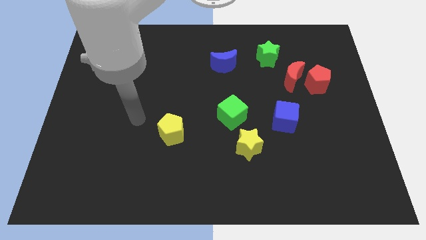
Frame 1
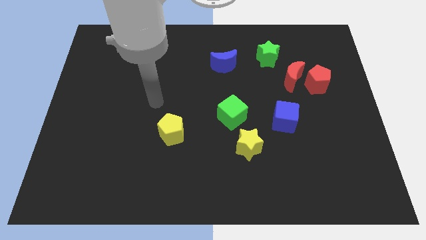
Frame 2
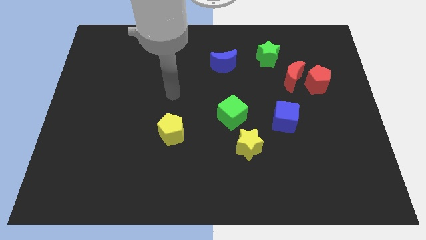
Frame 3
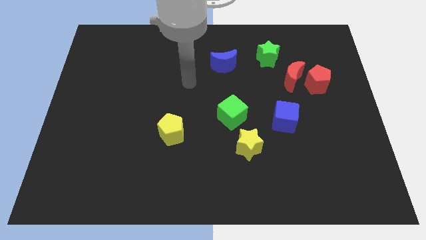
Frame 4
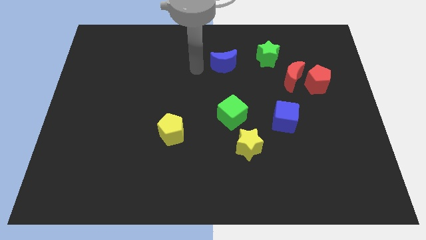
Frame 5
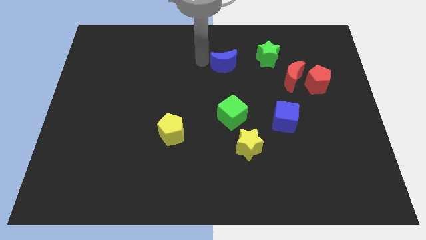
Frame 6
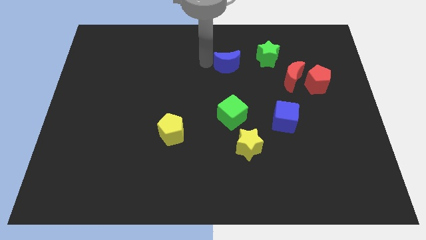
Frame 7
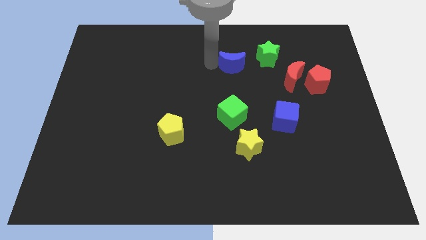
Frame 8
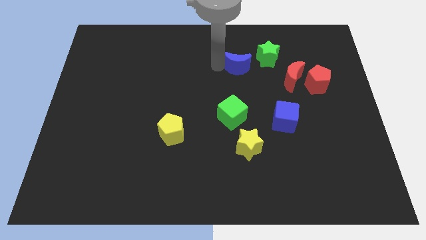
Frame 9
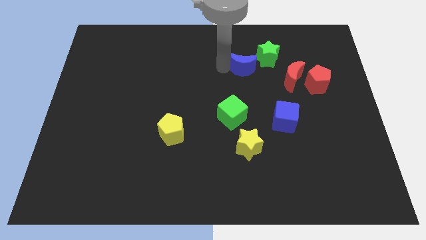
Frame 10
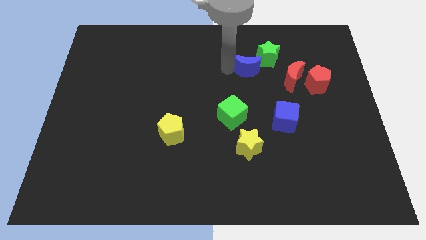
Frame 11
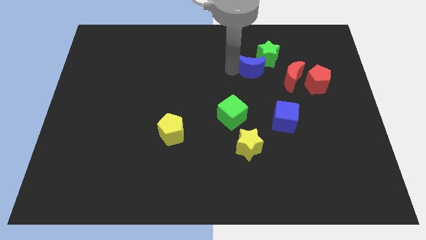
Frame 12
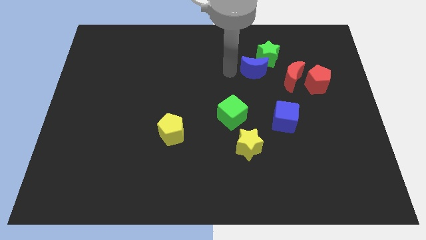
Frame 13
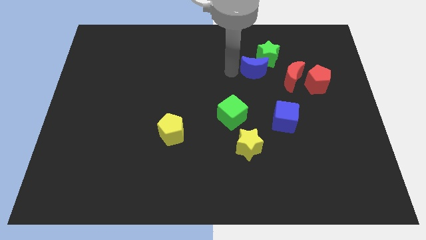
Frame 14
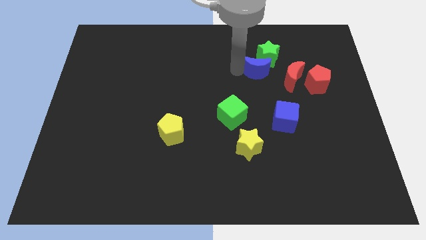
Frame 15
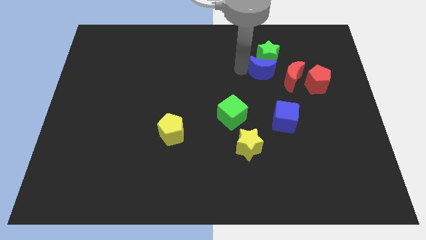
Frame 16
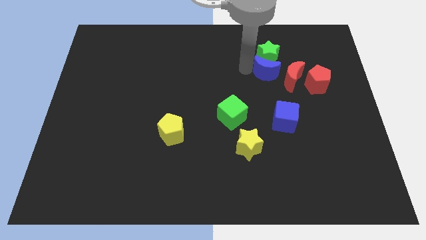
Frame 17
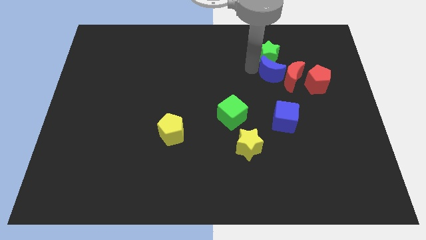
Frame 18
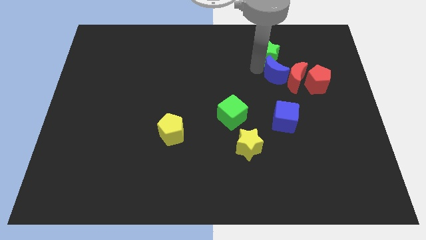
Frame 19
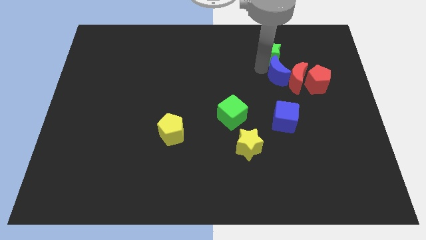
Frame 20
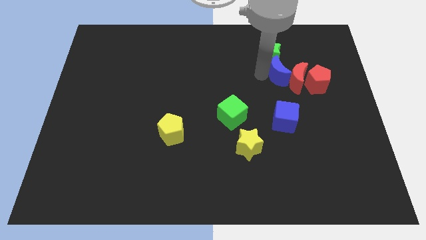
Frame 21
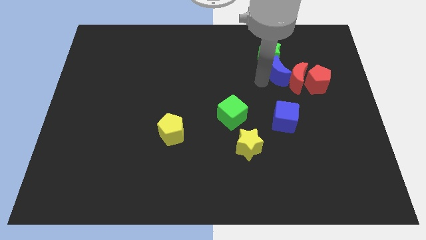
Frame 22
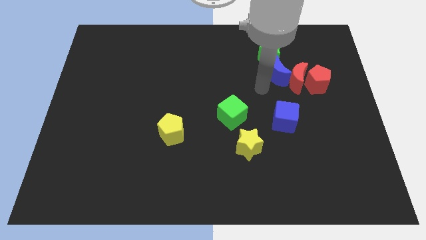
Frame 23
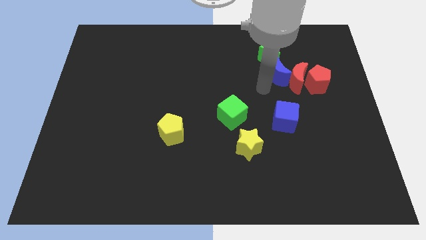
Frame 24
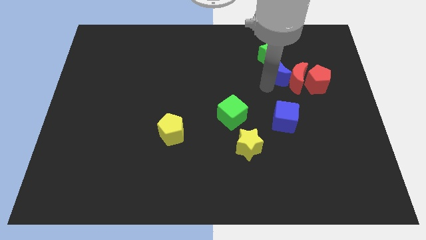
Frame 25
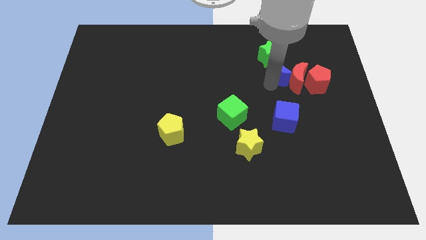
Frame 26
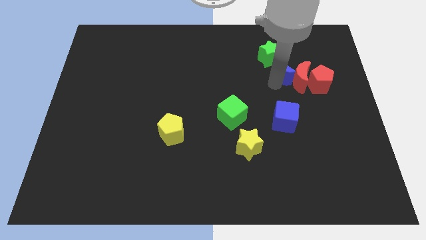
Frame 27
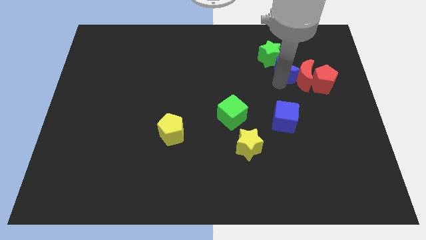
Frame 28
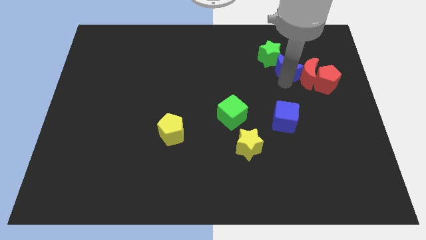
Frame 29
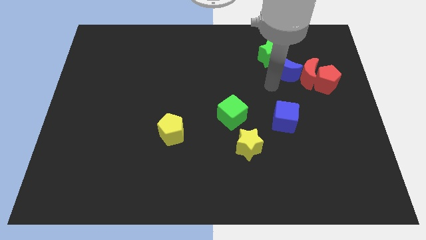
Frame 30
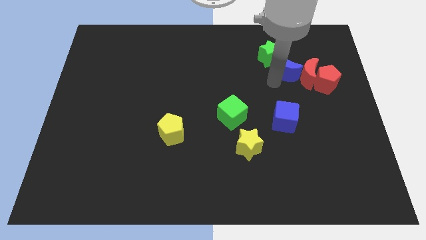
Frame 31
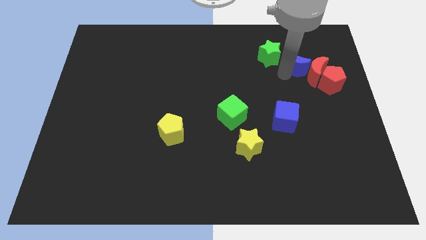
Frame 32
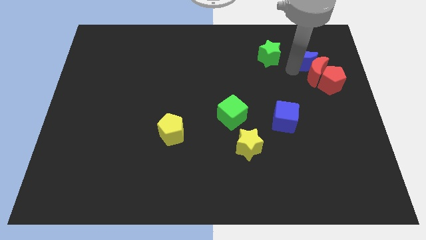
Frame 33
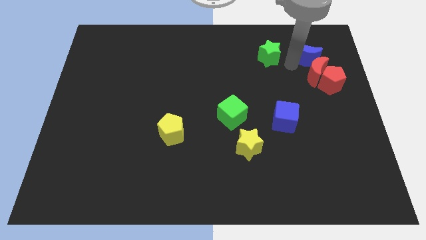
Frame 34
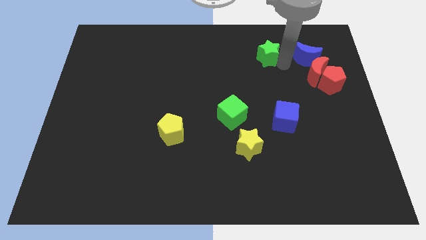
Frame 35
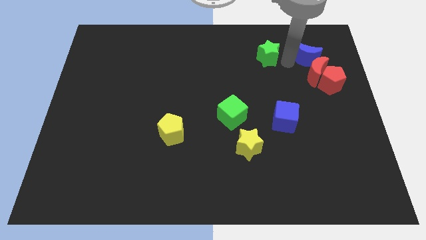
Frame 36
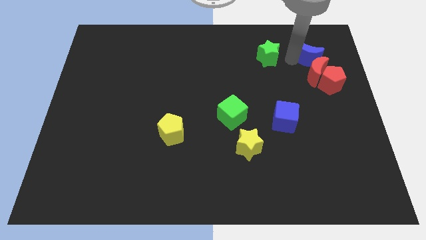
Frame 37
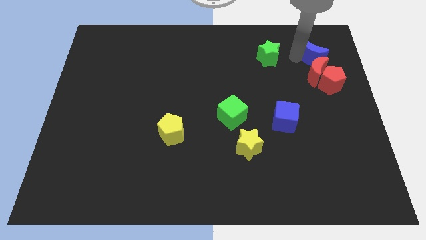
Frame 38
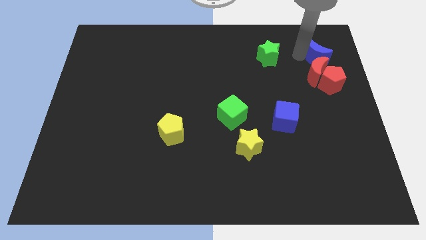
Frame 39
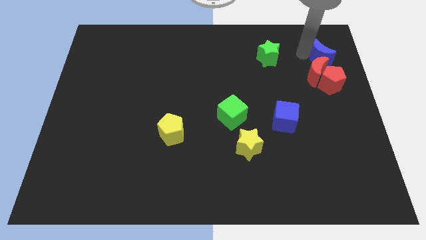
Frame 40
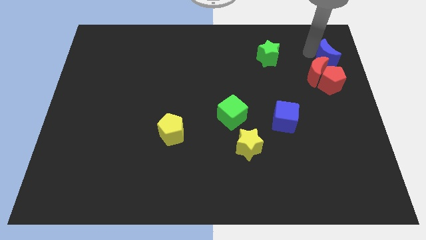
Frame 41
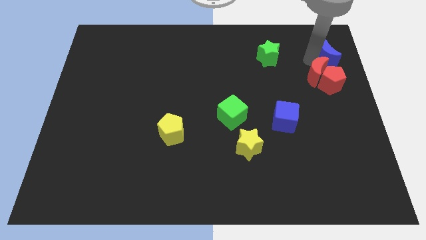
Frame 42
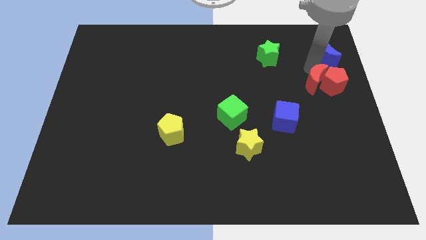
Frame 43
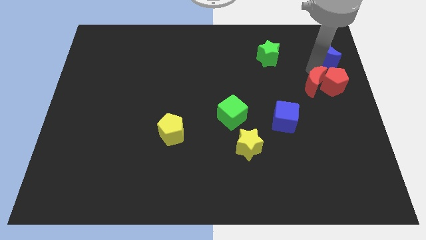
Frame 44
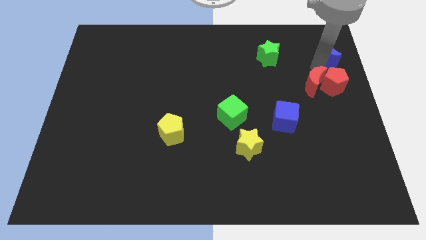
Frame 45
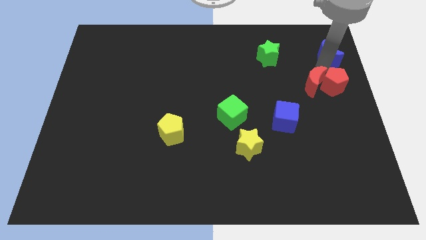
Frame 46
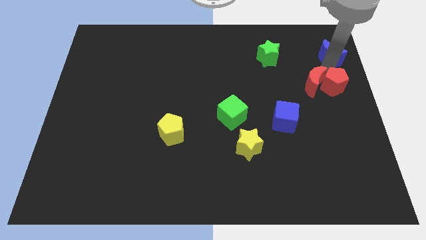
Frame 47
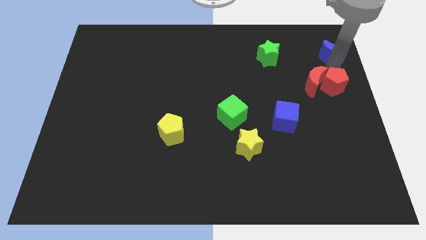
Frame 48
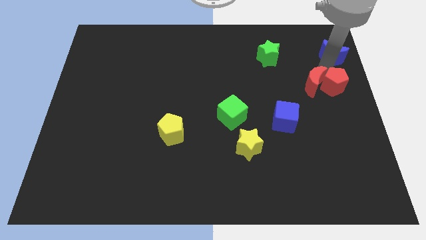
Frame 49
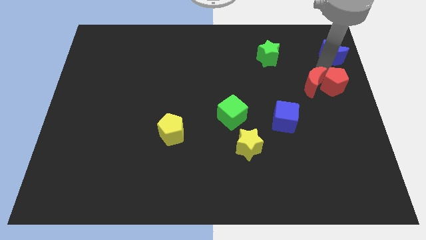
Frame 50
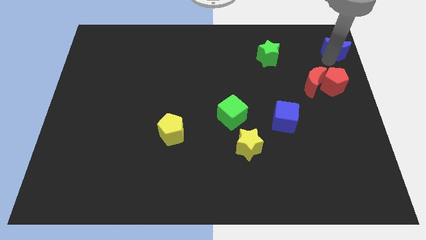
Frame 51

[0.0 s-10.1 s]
push the blue moon to the top right of the board
